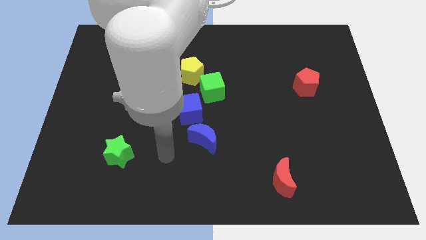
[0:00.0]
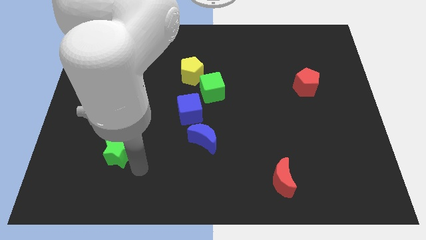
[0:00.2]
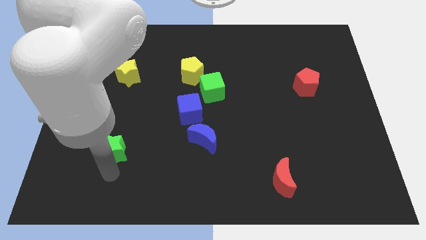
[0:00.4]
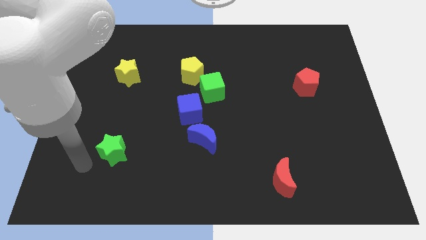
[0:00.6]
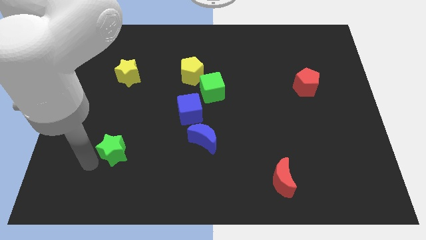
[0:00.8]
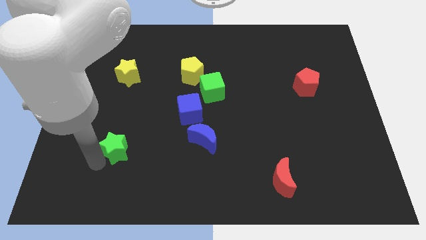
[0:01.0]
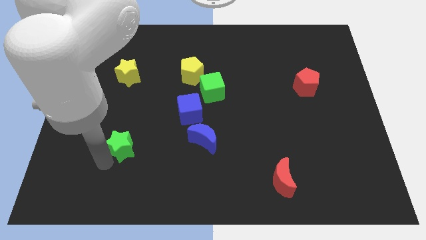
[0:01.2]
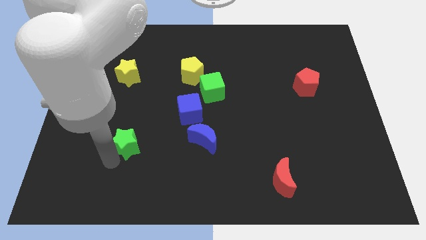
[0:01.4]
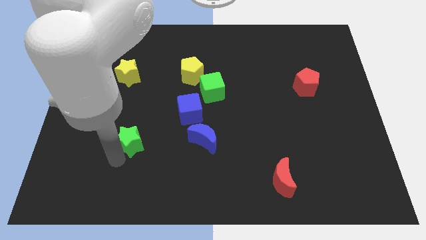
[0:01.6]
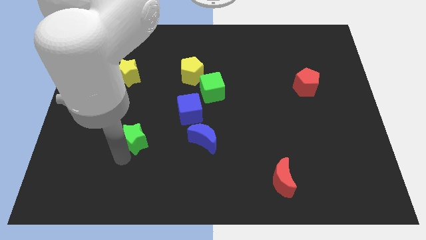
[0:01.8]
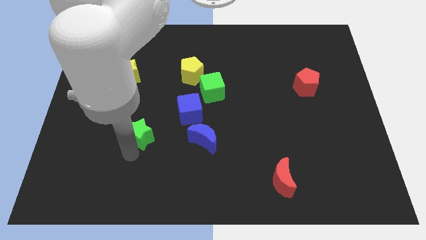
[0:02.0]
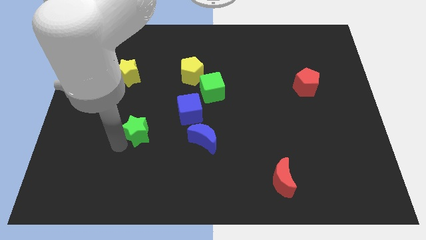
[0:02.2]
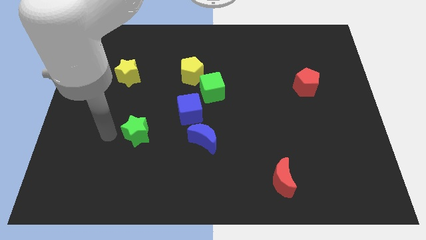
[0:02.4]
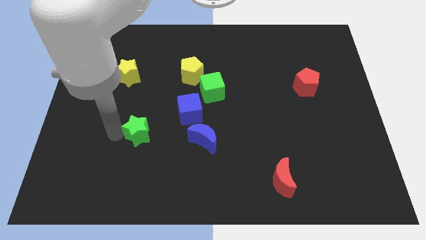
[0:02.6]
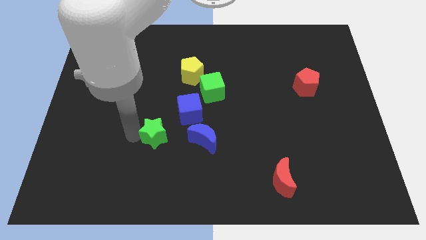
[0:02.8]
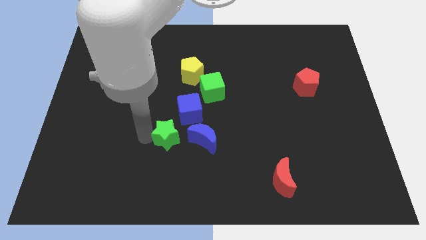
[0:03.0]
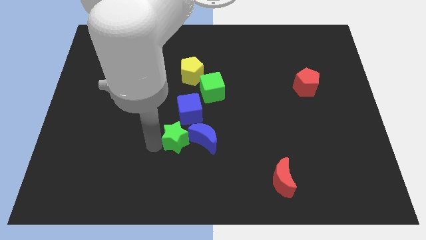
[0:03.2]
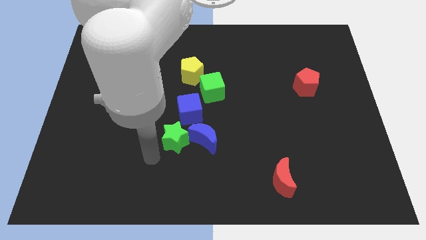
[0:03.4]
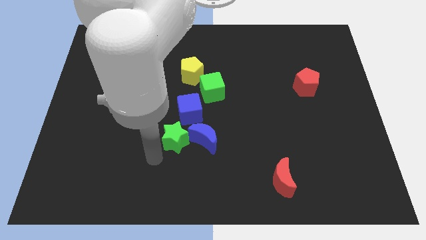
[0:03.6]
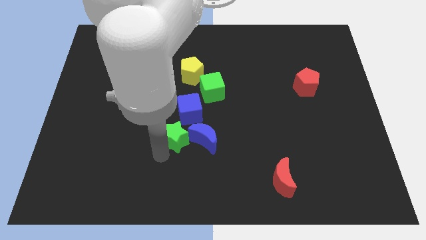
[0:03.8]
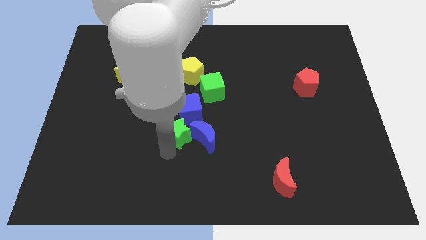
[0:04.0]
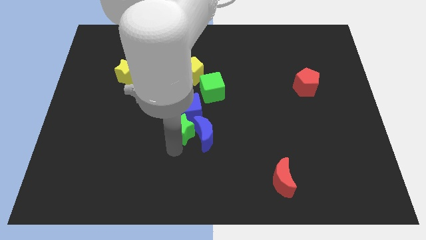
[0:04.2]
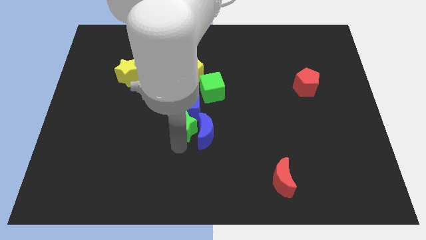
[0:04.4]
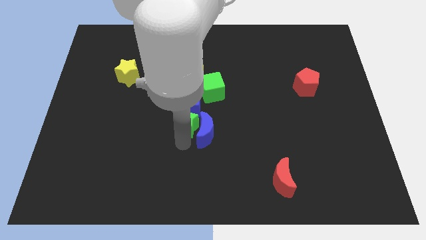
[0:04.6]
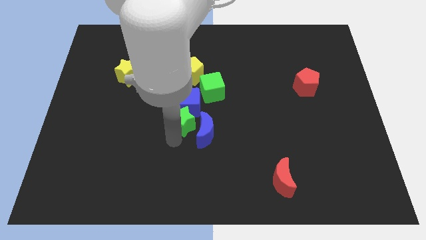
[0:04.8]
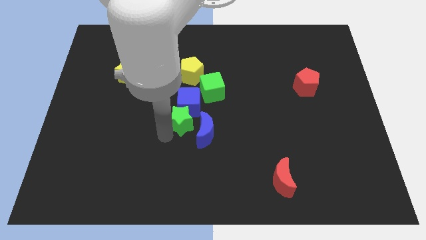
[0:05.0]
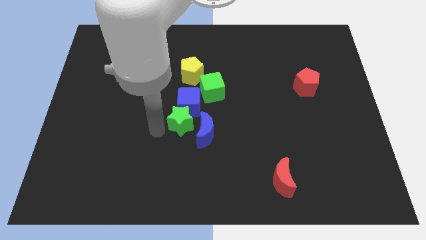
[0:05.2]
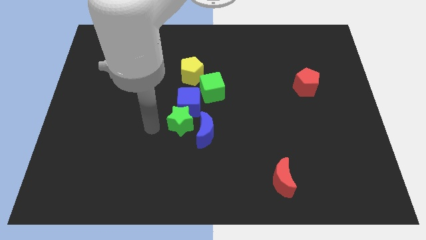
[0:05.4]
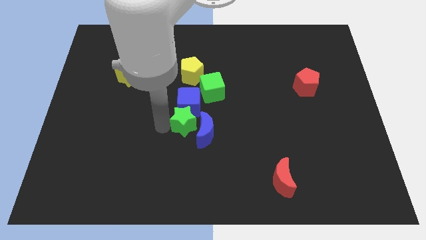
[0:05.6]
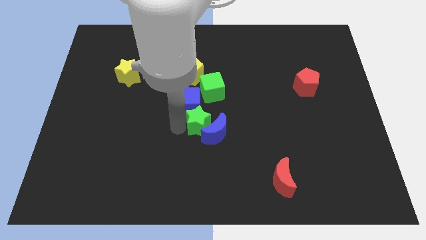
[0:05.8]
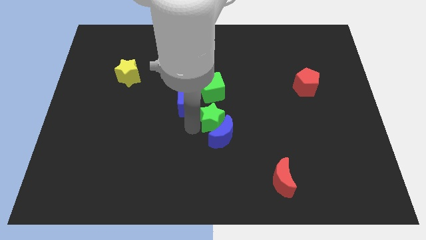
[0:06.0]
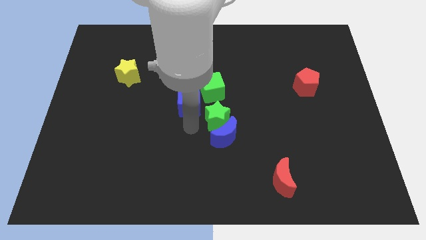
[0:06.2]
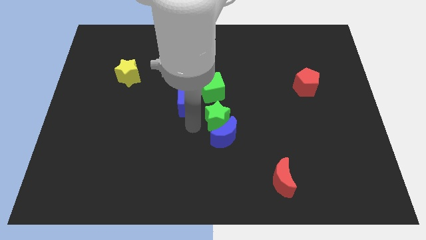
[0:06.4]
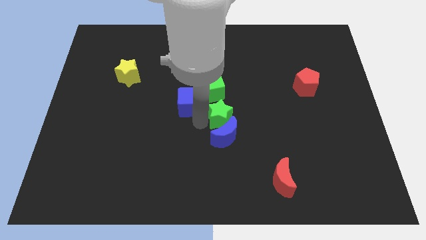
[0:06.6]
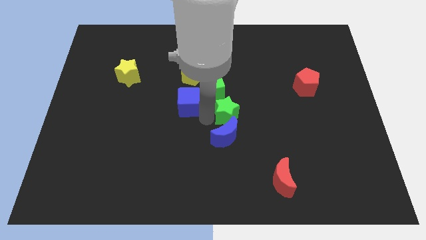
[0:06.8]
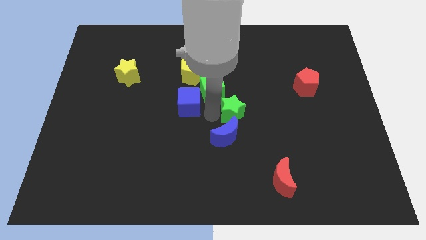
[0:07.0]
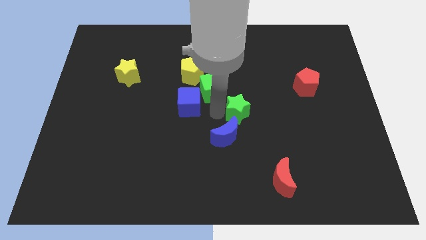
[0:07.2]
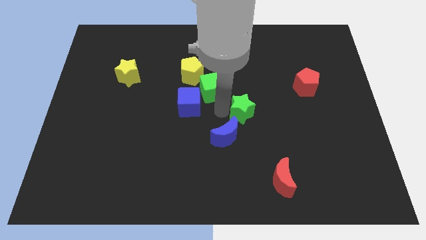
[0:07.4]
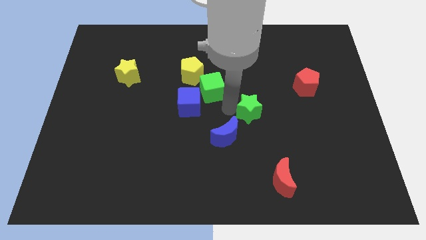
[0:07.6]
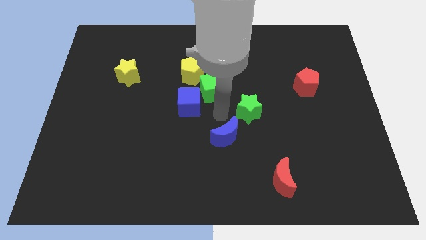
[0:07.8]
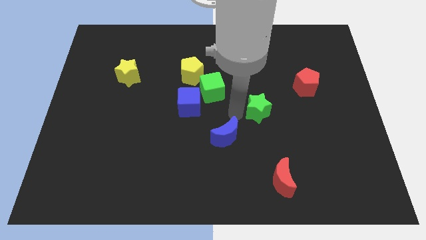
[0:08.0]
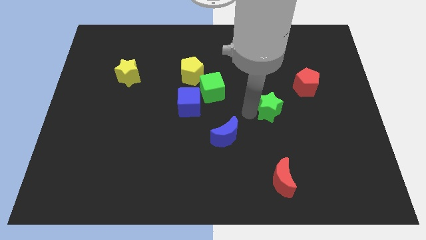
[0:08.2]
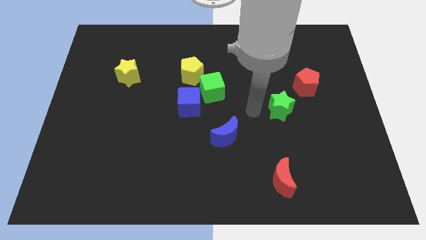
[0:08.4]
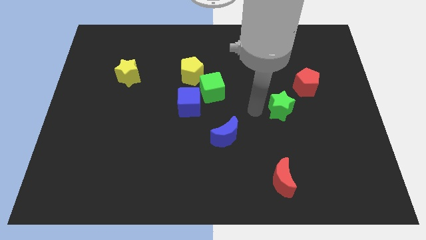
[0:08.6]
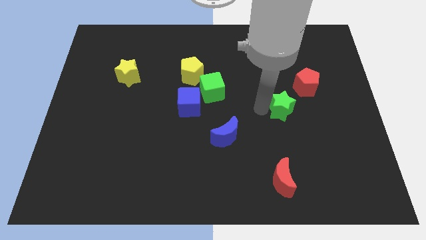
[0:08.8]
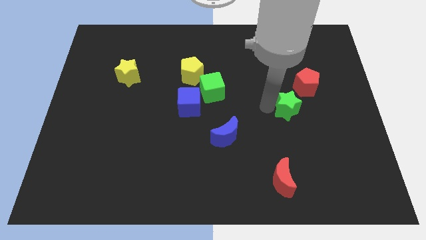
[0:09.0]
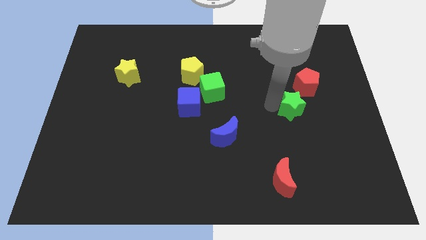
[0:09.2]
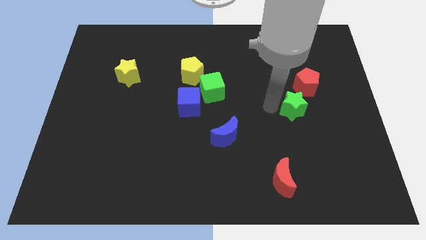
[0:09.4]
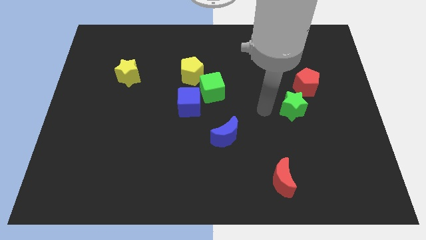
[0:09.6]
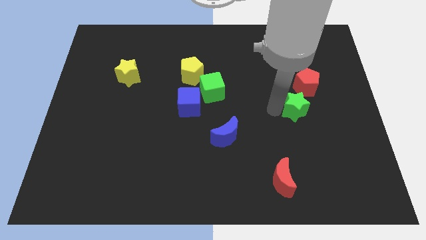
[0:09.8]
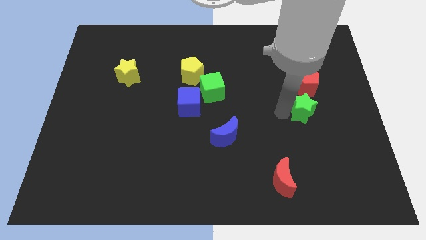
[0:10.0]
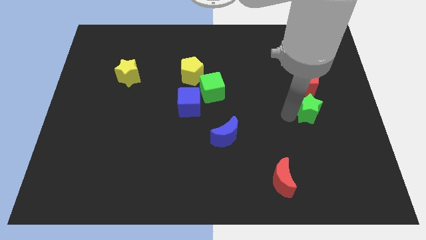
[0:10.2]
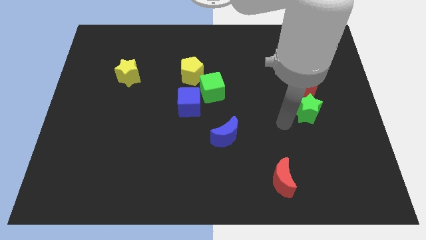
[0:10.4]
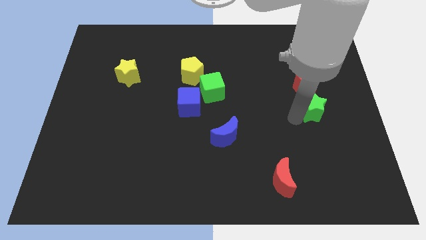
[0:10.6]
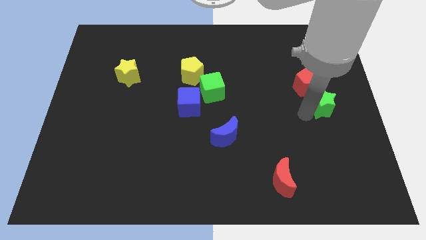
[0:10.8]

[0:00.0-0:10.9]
push the green star to the right side

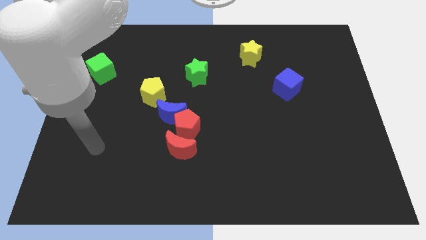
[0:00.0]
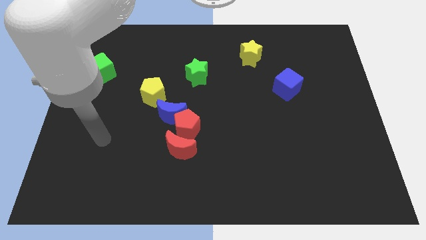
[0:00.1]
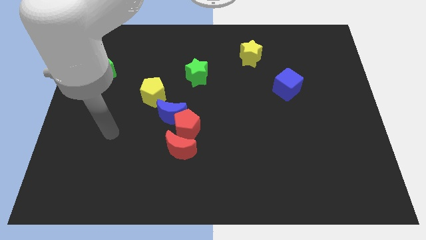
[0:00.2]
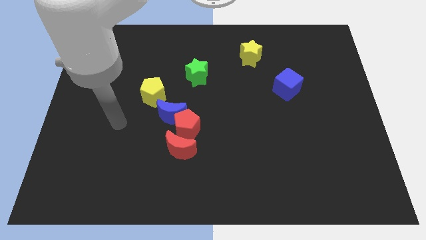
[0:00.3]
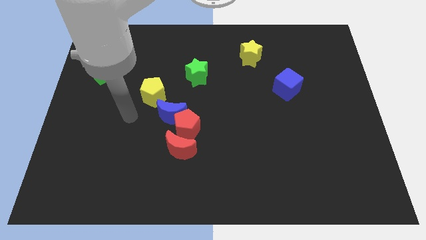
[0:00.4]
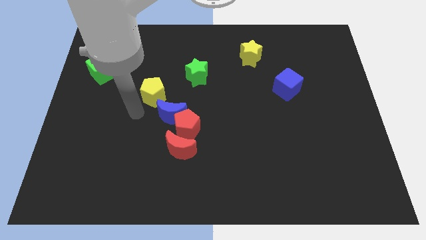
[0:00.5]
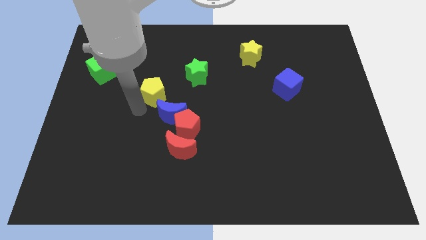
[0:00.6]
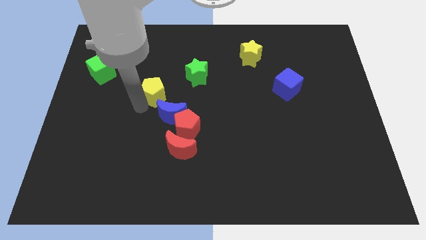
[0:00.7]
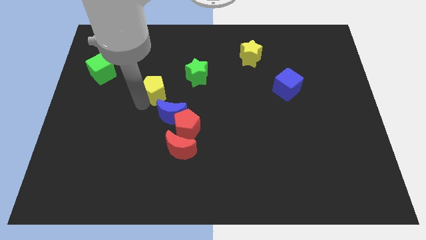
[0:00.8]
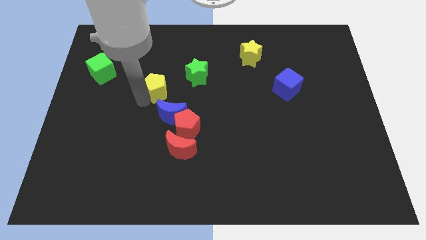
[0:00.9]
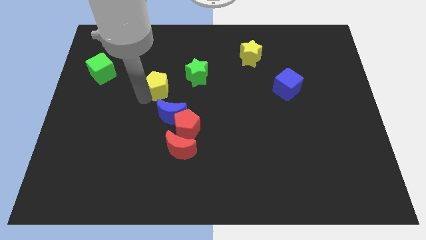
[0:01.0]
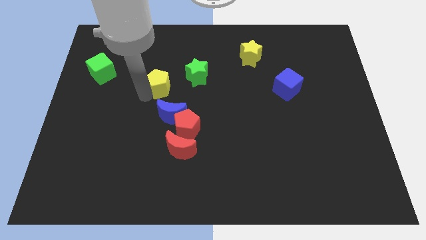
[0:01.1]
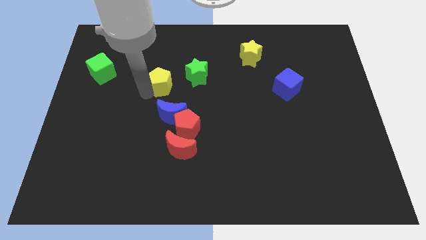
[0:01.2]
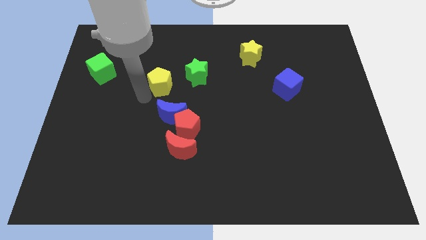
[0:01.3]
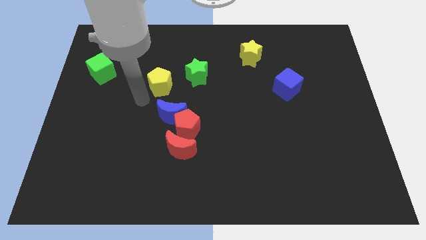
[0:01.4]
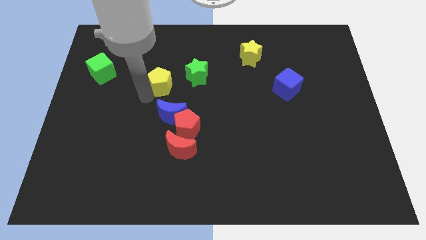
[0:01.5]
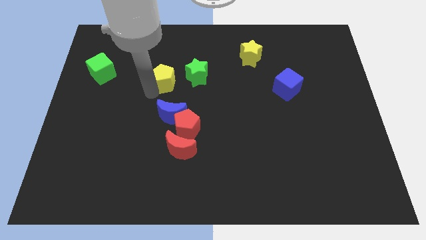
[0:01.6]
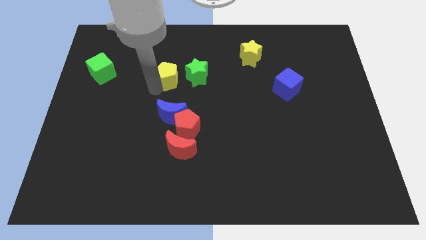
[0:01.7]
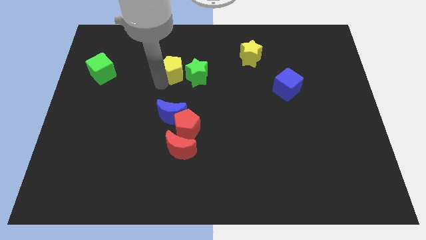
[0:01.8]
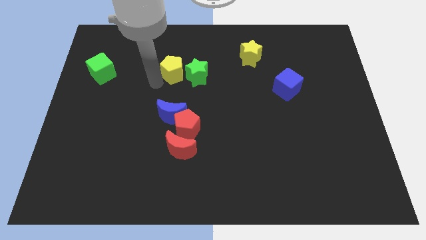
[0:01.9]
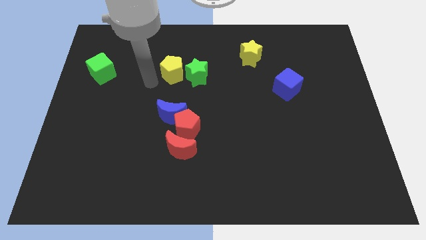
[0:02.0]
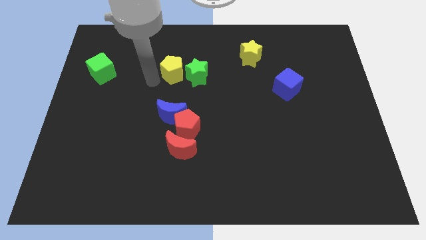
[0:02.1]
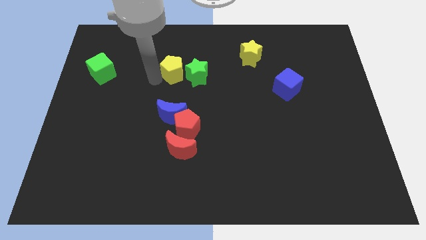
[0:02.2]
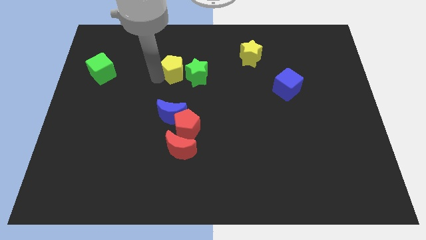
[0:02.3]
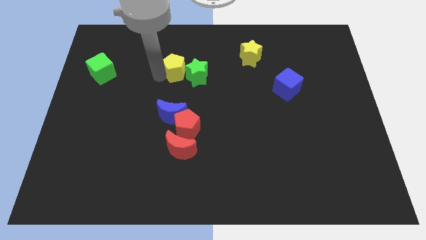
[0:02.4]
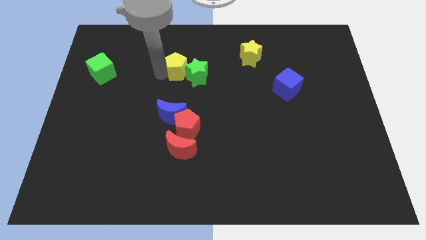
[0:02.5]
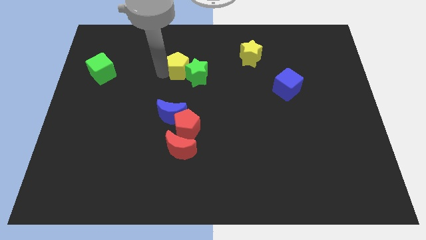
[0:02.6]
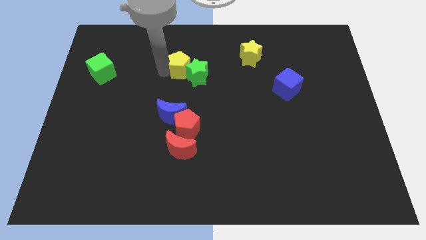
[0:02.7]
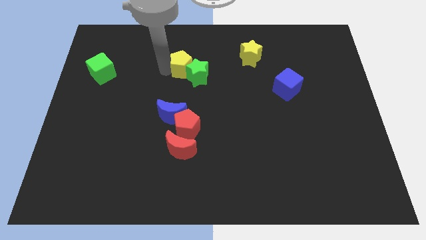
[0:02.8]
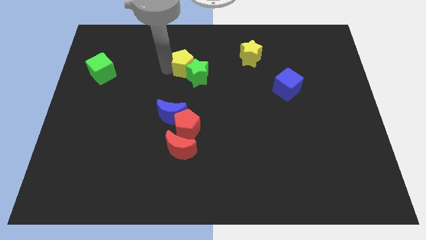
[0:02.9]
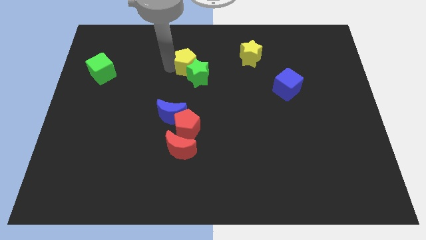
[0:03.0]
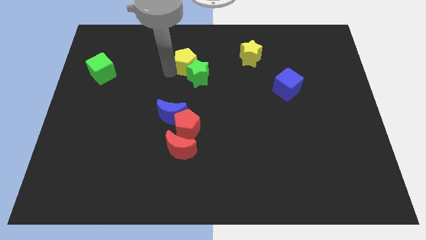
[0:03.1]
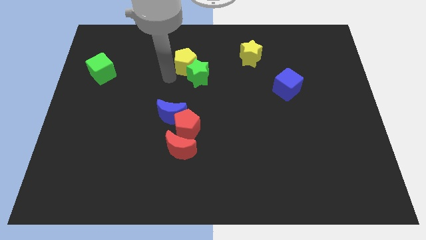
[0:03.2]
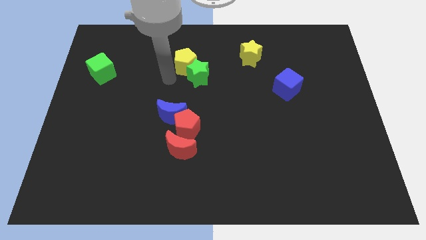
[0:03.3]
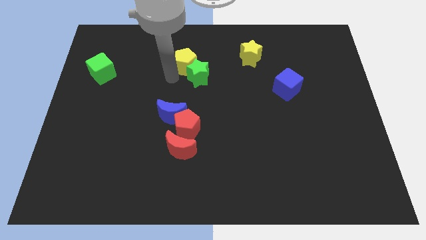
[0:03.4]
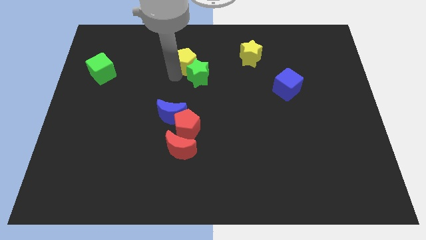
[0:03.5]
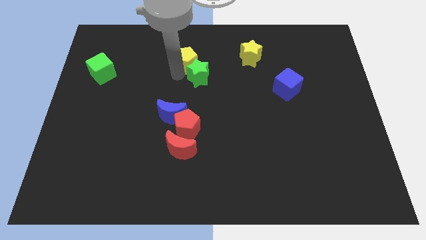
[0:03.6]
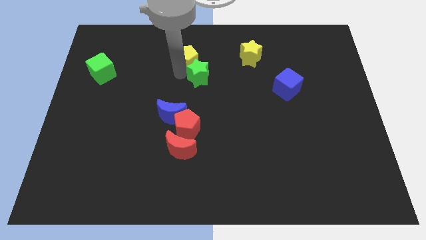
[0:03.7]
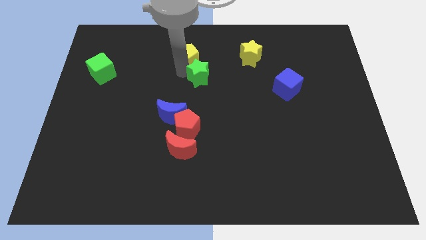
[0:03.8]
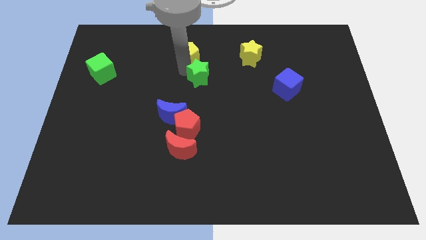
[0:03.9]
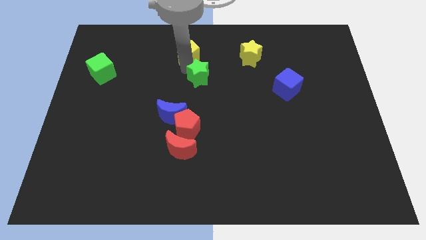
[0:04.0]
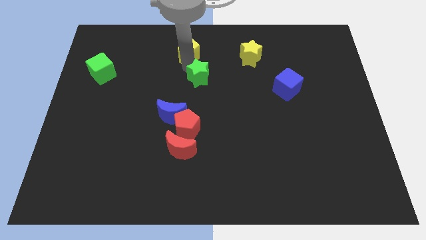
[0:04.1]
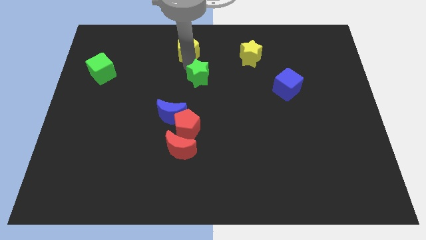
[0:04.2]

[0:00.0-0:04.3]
move the yellow pentagon to the top side
